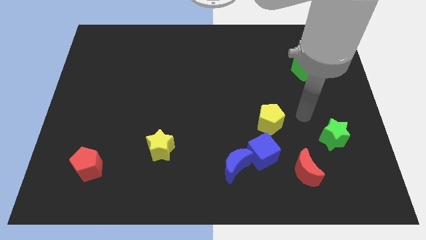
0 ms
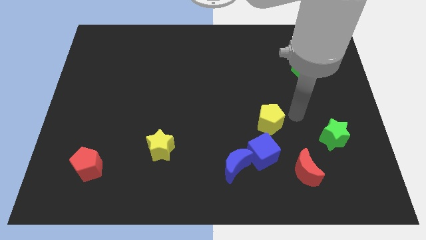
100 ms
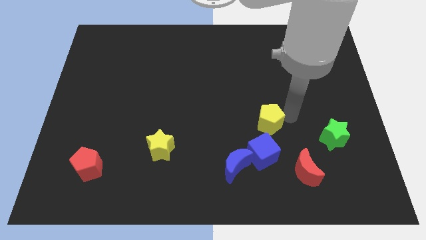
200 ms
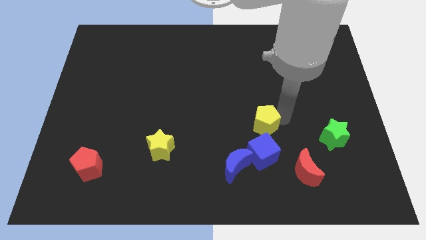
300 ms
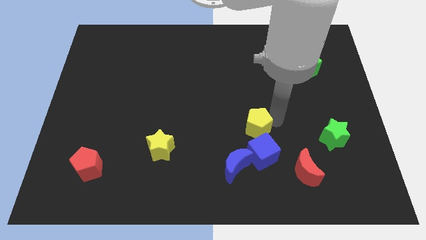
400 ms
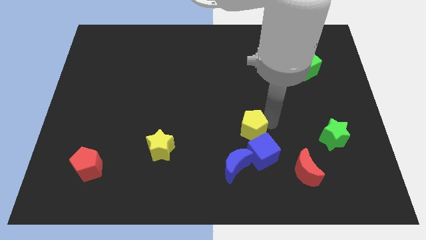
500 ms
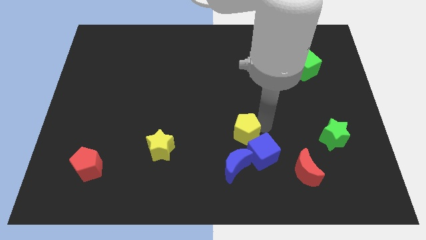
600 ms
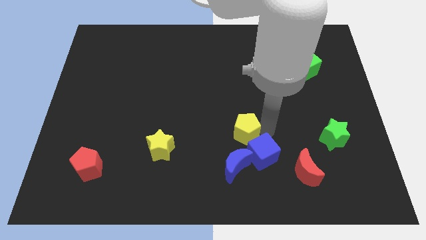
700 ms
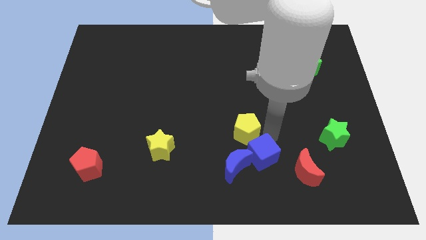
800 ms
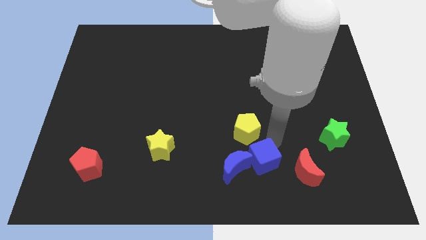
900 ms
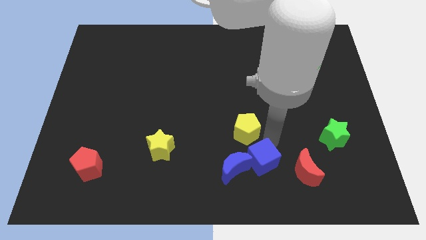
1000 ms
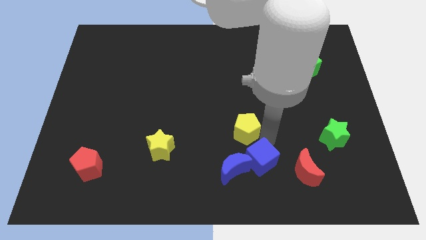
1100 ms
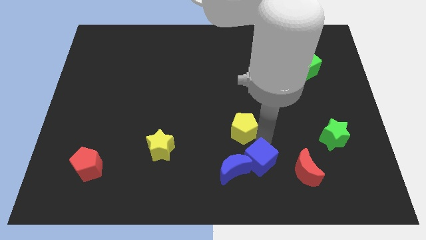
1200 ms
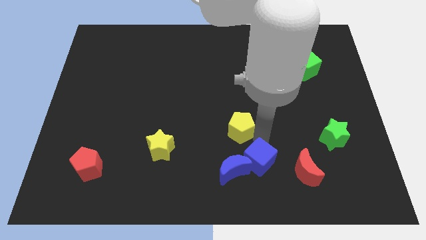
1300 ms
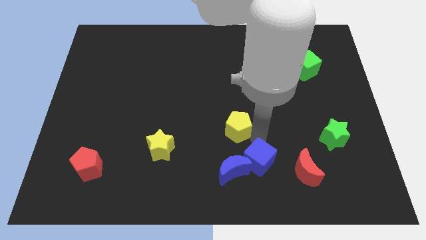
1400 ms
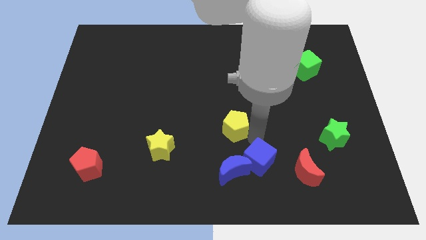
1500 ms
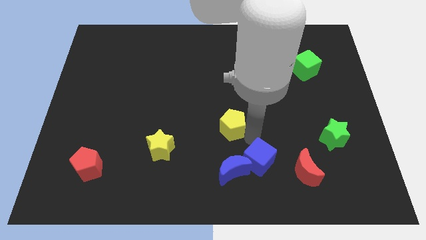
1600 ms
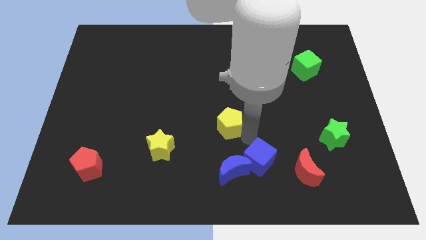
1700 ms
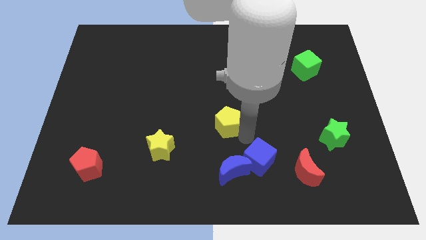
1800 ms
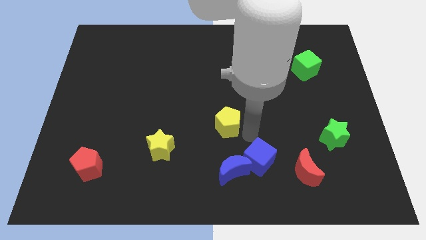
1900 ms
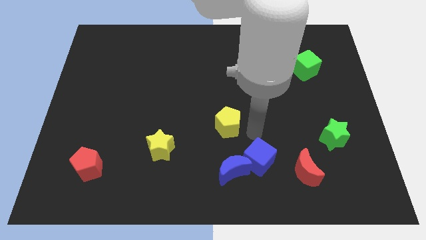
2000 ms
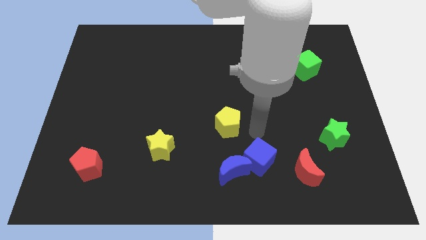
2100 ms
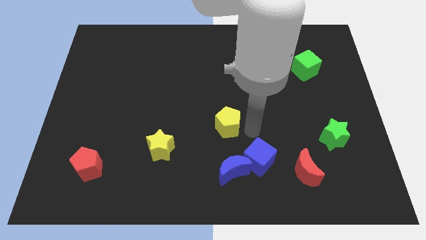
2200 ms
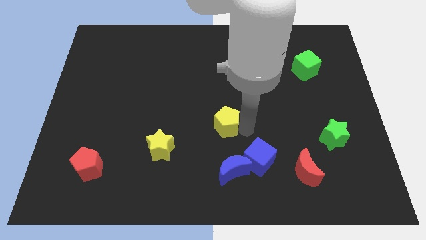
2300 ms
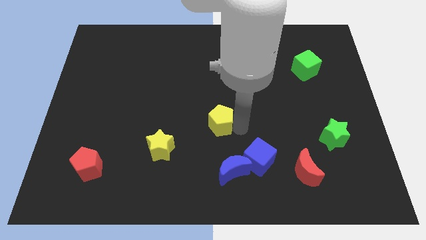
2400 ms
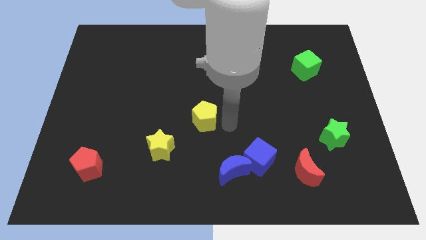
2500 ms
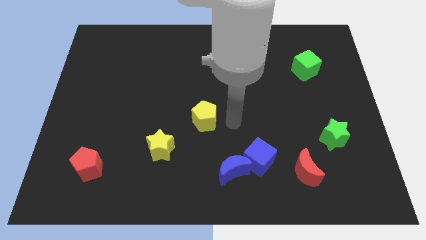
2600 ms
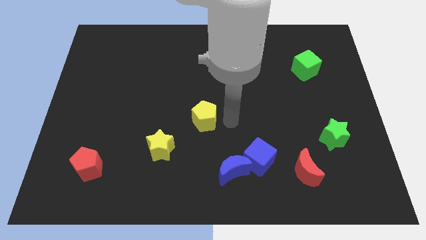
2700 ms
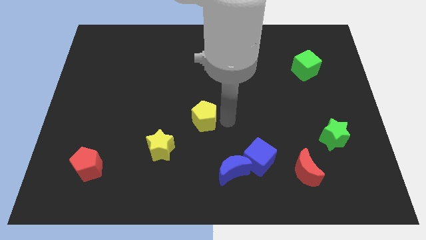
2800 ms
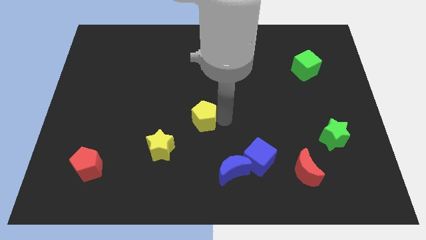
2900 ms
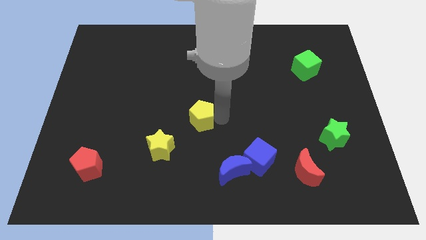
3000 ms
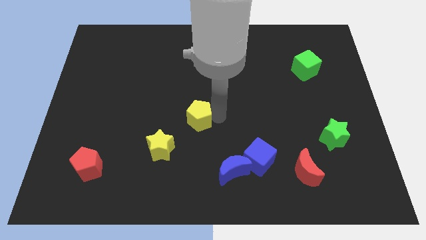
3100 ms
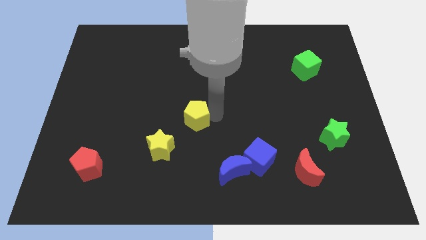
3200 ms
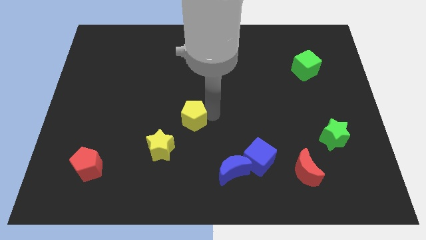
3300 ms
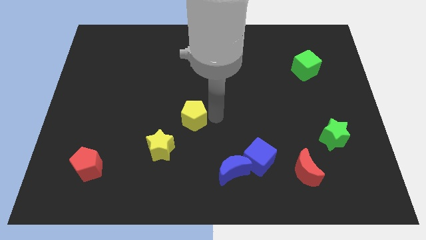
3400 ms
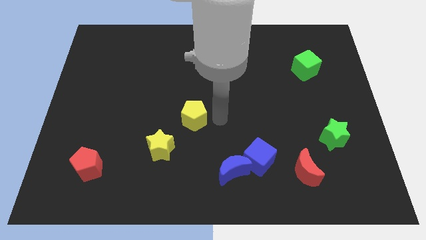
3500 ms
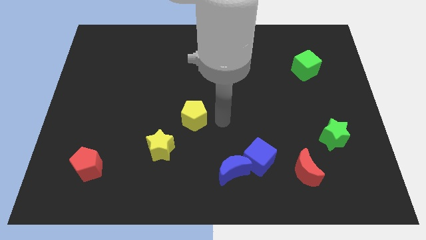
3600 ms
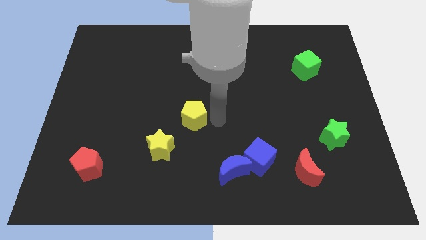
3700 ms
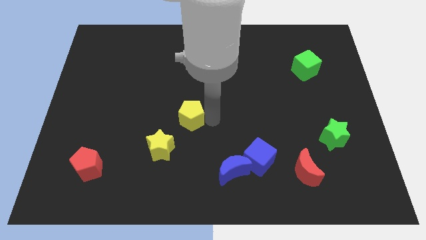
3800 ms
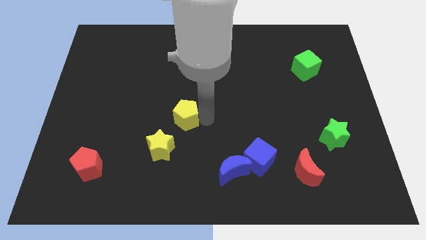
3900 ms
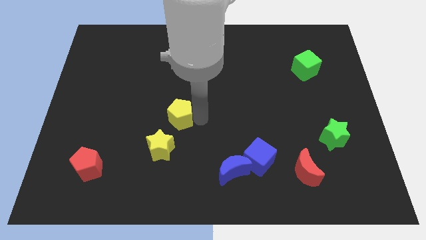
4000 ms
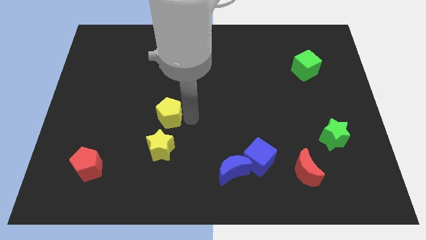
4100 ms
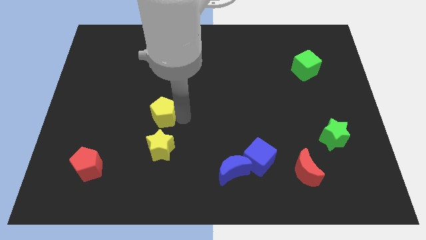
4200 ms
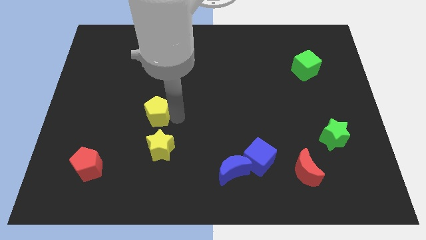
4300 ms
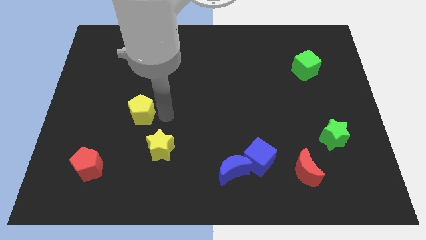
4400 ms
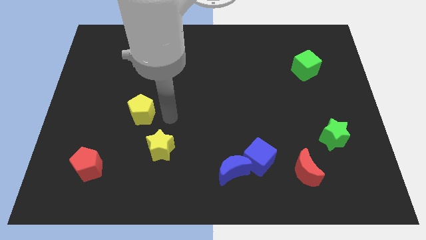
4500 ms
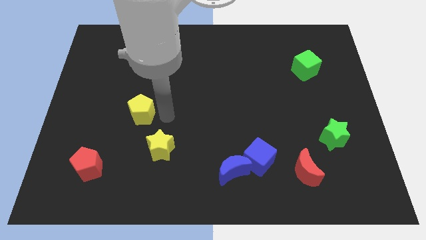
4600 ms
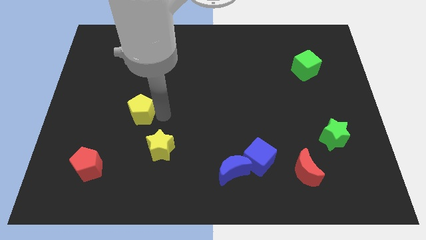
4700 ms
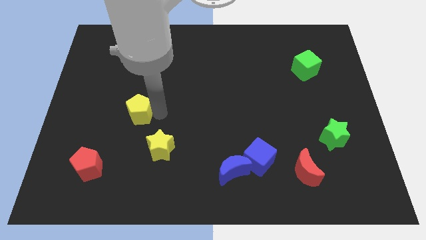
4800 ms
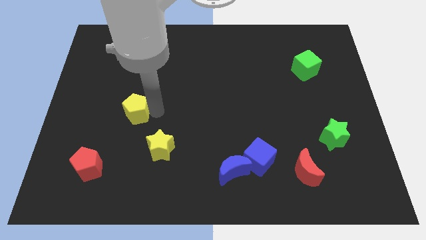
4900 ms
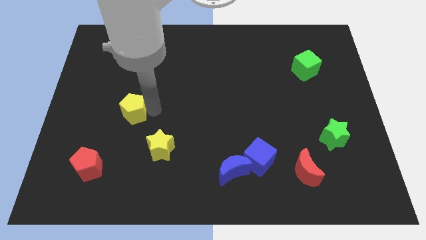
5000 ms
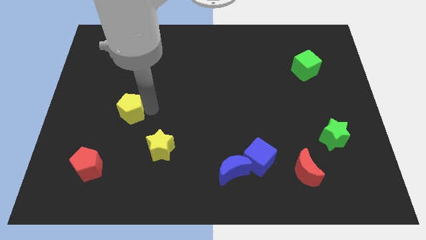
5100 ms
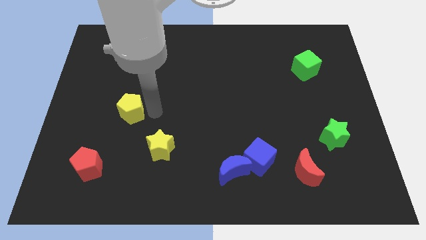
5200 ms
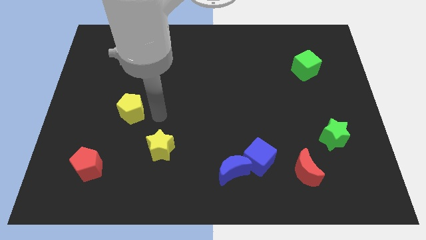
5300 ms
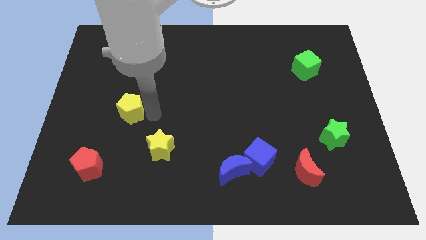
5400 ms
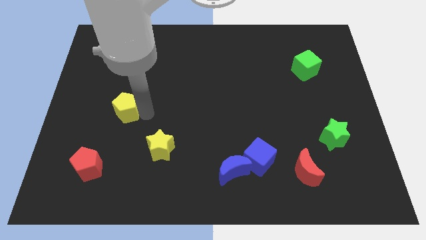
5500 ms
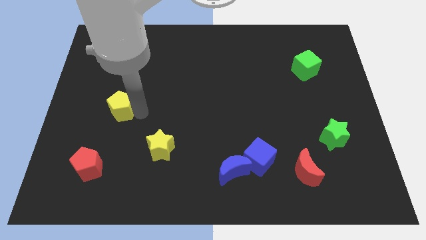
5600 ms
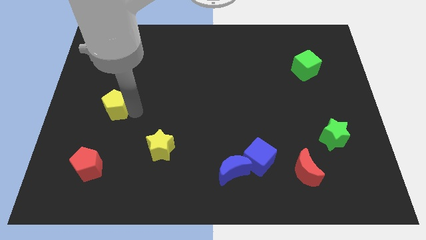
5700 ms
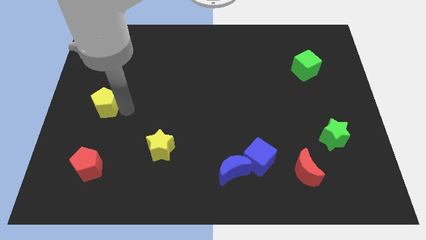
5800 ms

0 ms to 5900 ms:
move the yellow pentagon to the left side

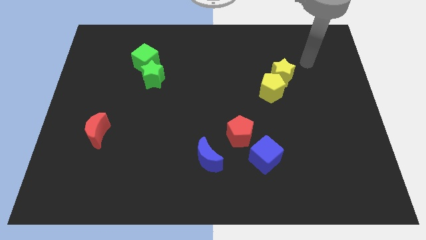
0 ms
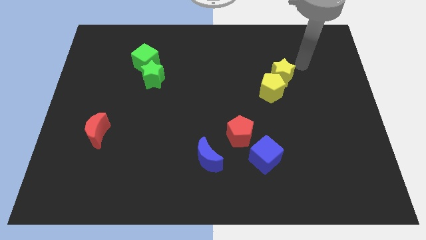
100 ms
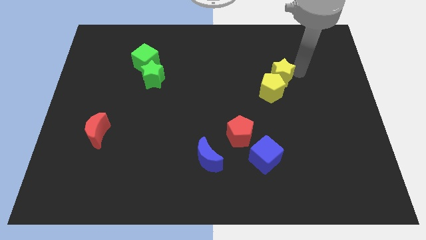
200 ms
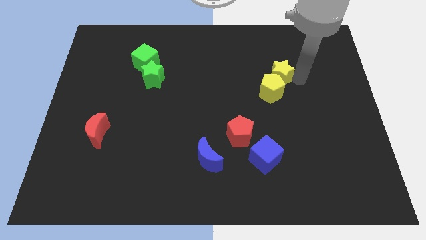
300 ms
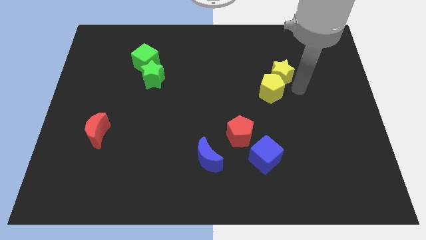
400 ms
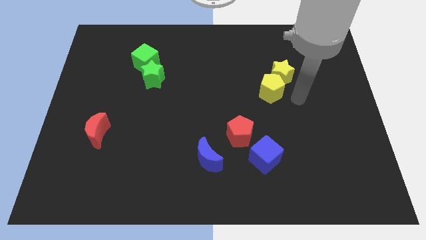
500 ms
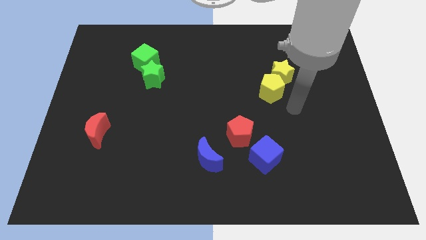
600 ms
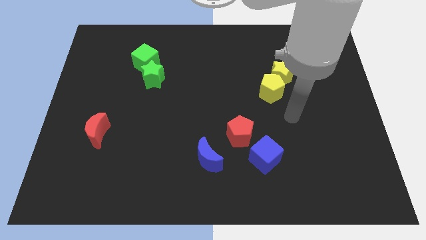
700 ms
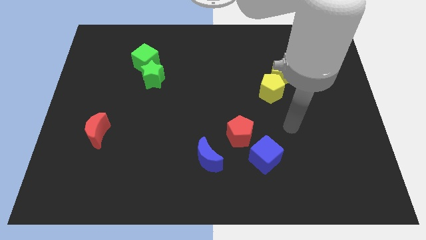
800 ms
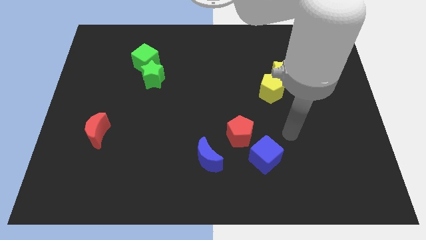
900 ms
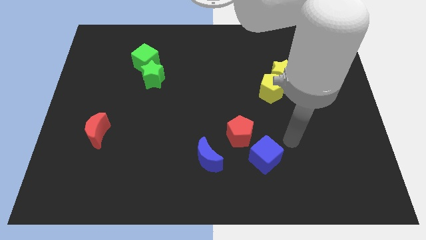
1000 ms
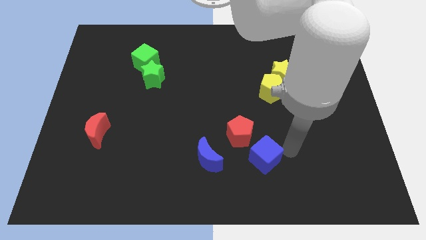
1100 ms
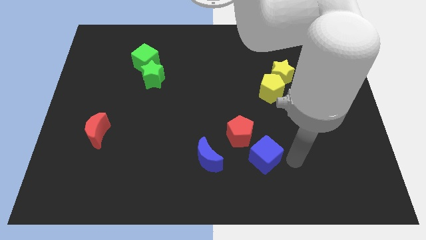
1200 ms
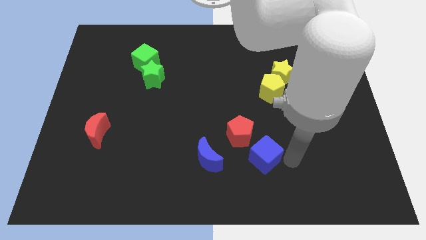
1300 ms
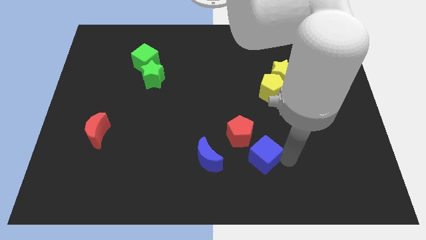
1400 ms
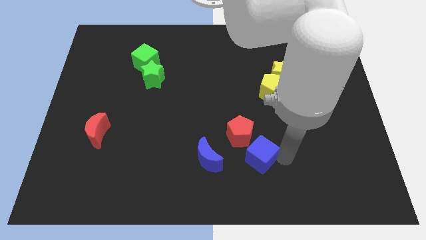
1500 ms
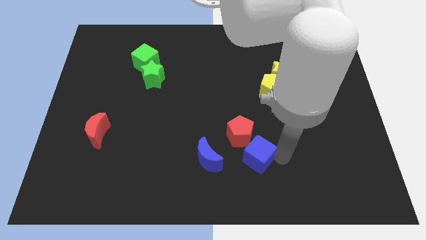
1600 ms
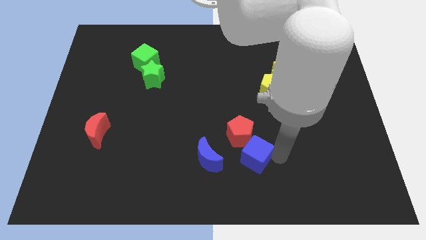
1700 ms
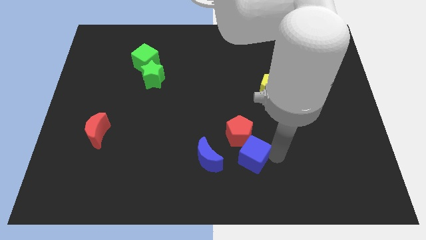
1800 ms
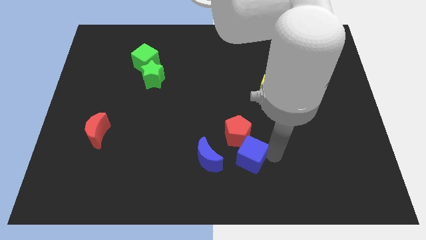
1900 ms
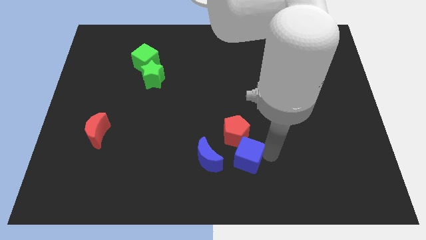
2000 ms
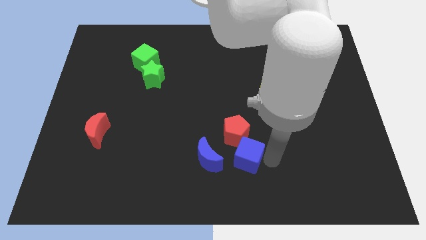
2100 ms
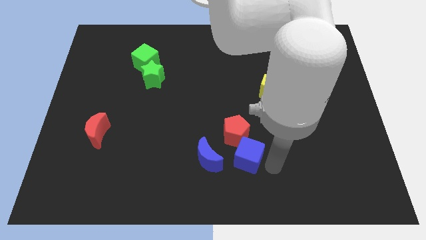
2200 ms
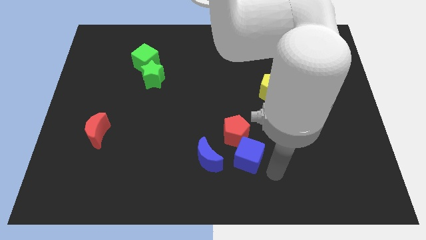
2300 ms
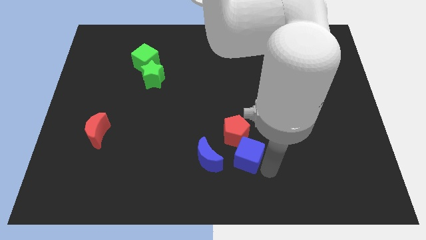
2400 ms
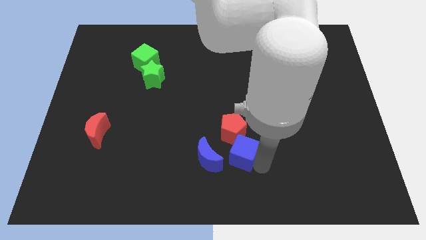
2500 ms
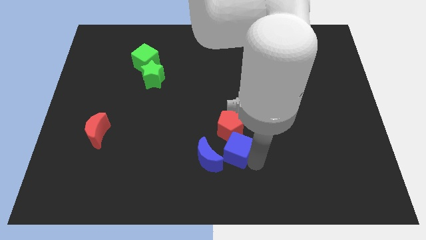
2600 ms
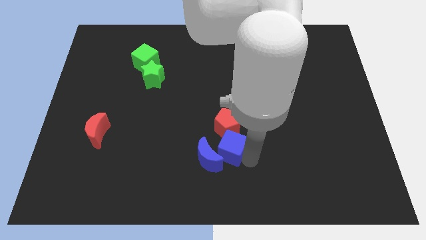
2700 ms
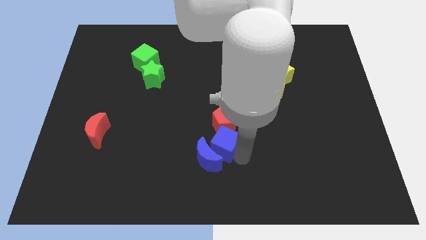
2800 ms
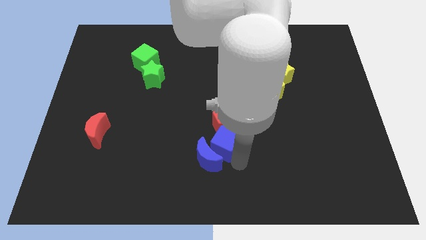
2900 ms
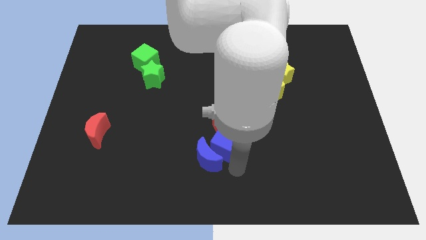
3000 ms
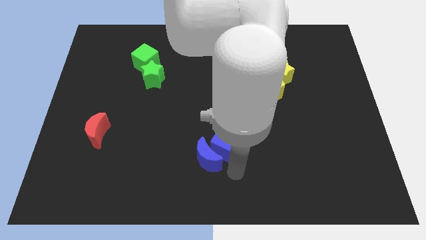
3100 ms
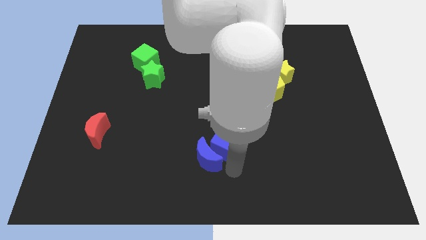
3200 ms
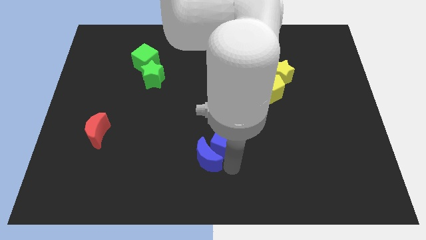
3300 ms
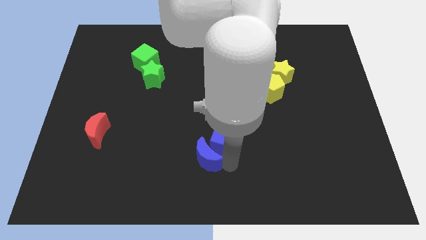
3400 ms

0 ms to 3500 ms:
put the blue cube to the middle
